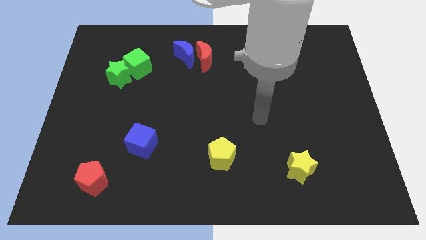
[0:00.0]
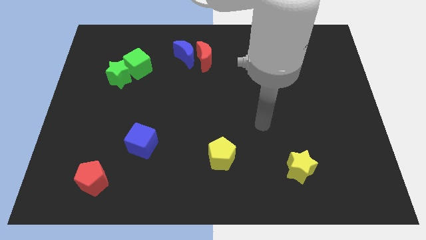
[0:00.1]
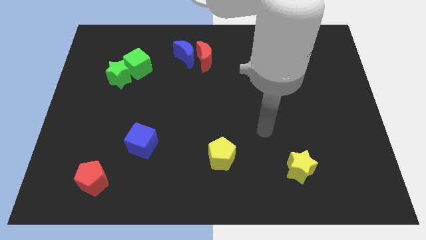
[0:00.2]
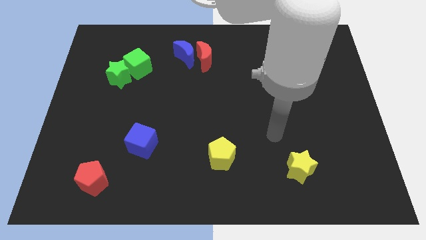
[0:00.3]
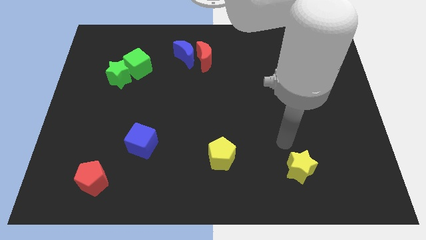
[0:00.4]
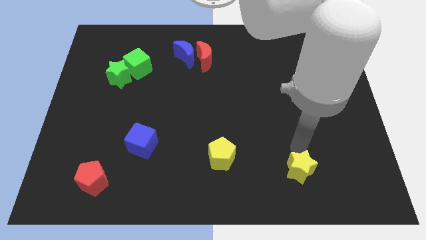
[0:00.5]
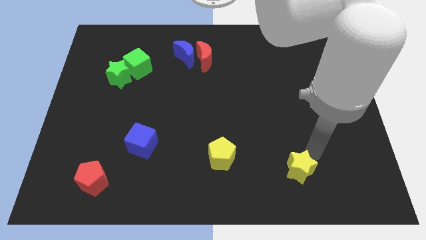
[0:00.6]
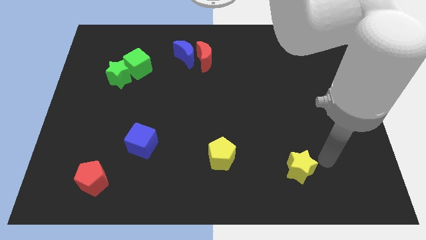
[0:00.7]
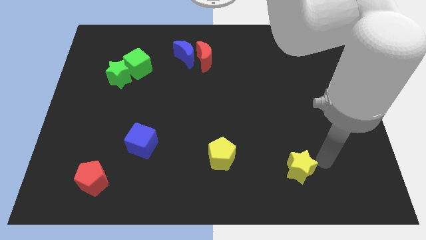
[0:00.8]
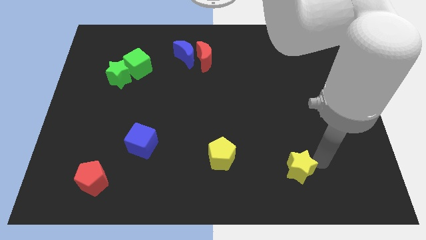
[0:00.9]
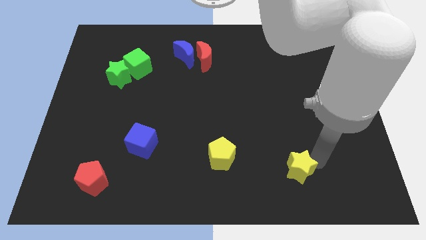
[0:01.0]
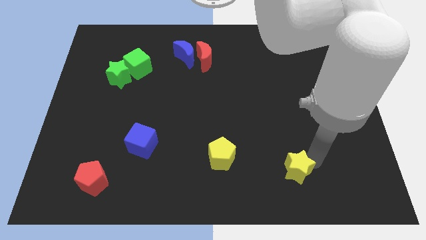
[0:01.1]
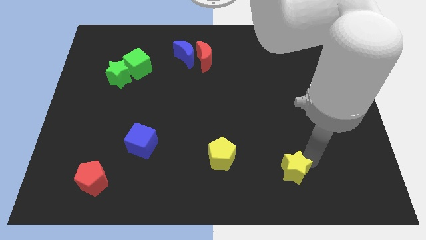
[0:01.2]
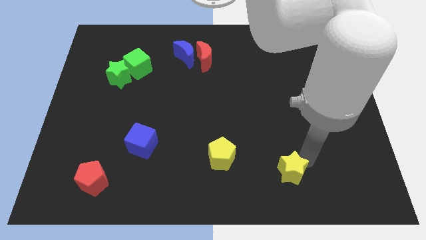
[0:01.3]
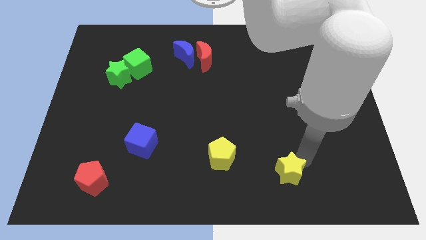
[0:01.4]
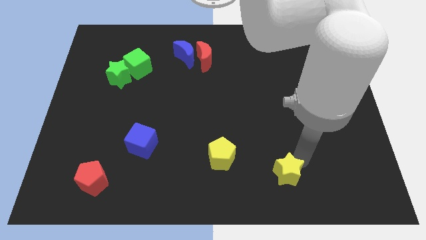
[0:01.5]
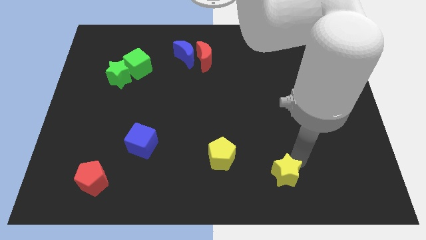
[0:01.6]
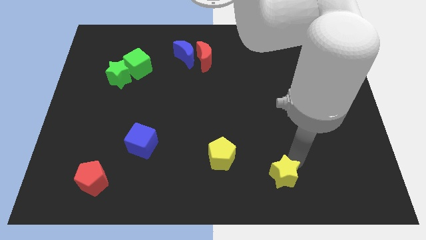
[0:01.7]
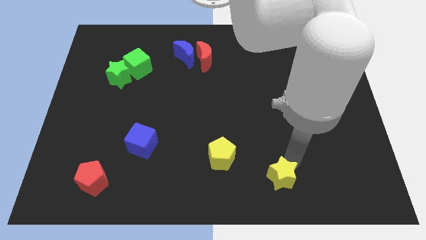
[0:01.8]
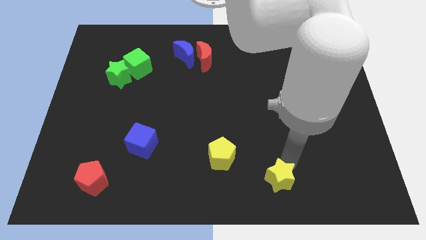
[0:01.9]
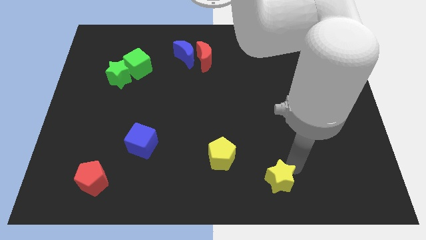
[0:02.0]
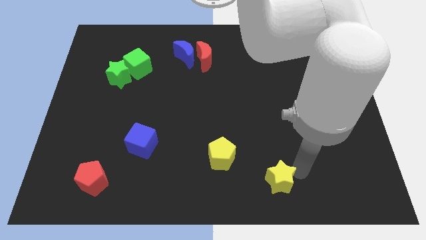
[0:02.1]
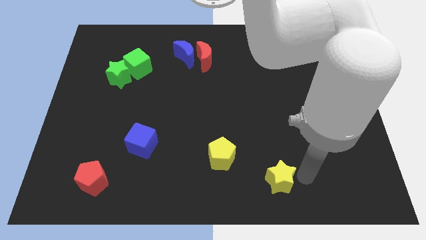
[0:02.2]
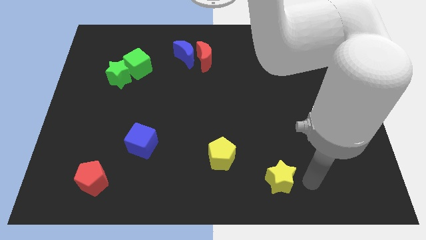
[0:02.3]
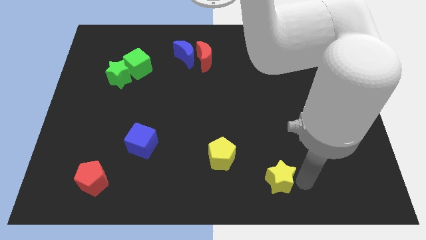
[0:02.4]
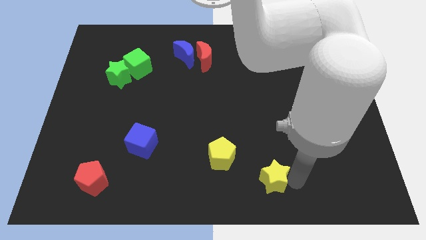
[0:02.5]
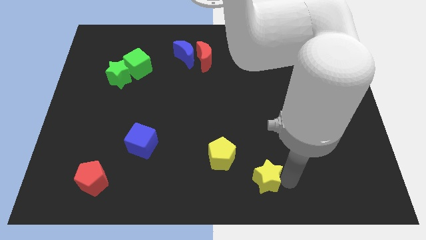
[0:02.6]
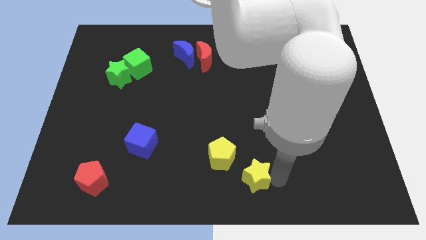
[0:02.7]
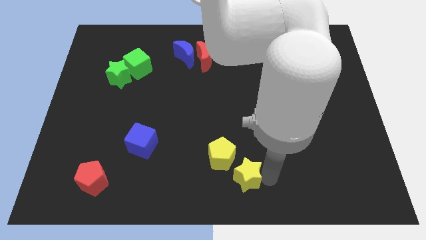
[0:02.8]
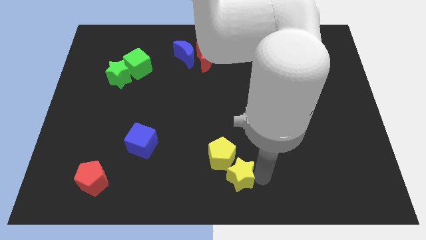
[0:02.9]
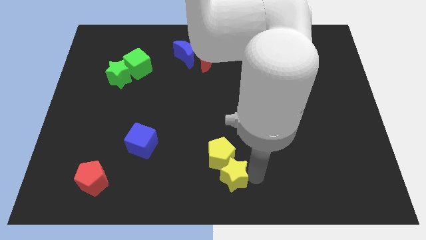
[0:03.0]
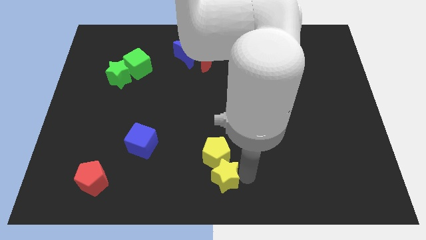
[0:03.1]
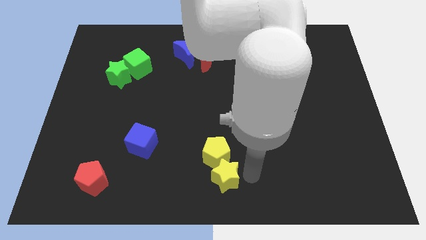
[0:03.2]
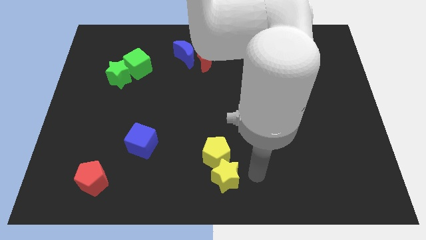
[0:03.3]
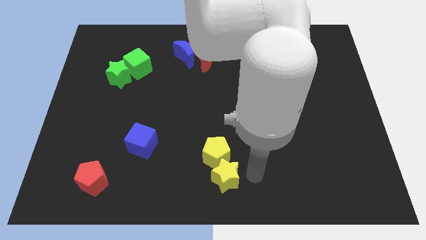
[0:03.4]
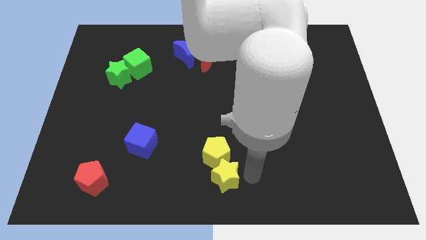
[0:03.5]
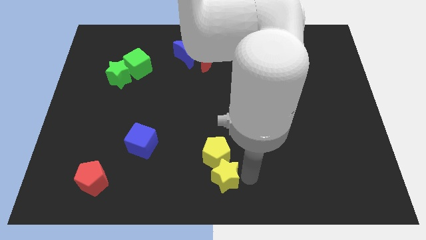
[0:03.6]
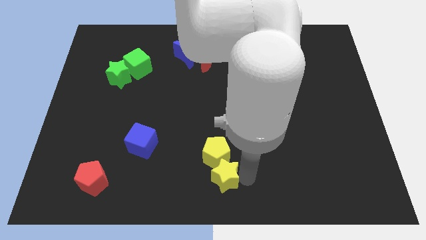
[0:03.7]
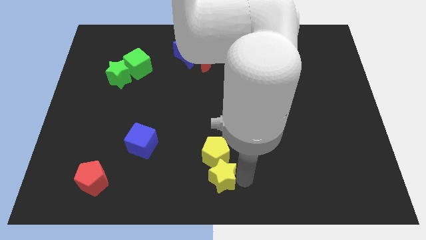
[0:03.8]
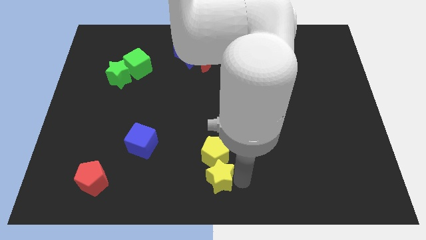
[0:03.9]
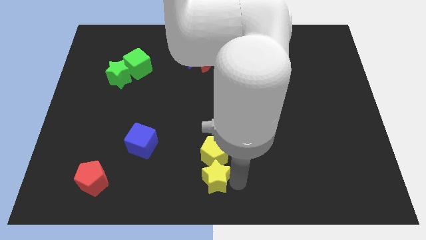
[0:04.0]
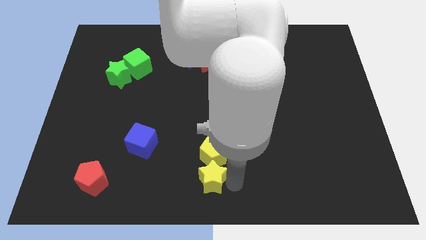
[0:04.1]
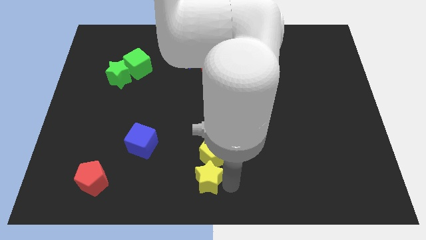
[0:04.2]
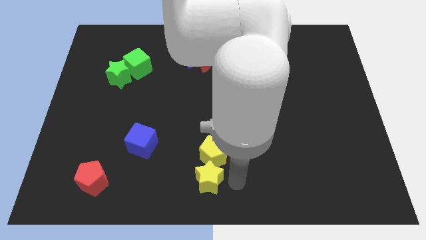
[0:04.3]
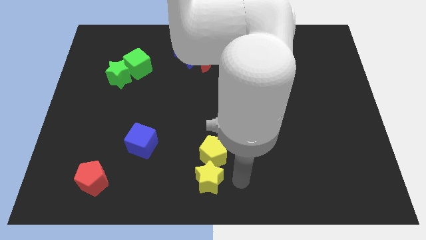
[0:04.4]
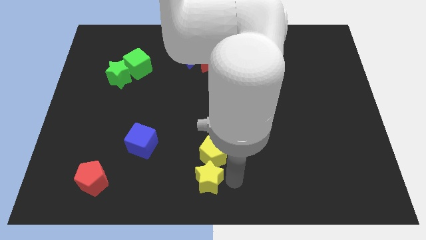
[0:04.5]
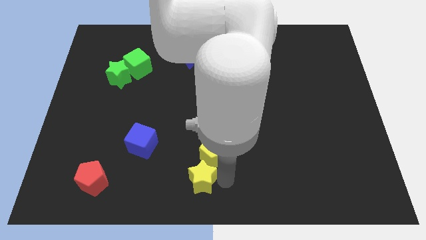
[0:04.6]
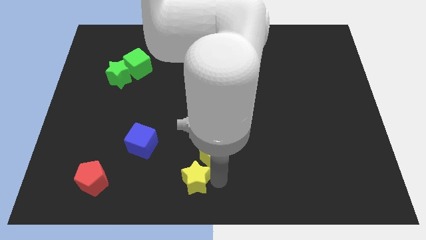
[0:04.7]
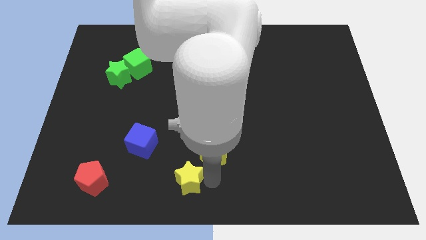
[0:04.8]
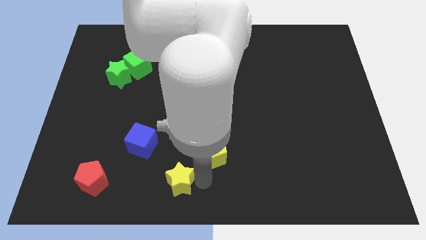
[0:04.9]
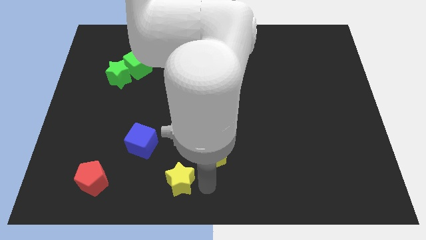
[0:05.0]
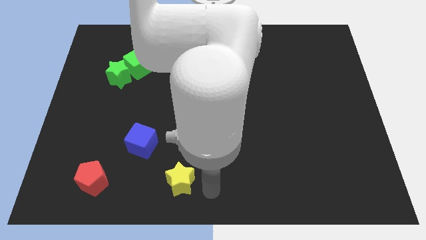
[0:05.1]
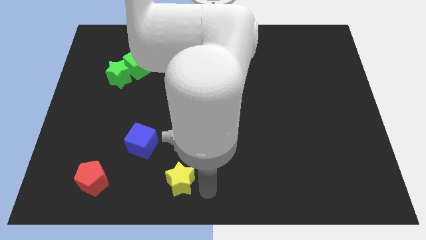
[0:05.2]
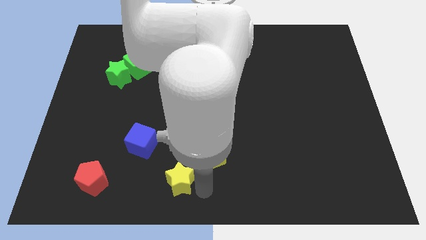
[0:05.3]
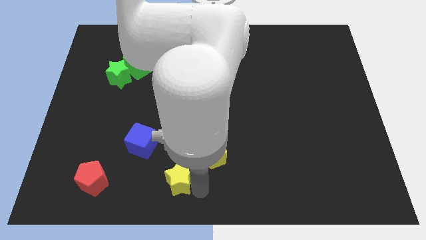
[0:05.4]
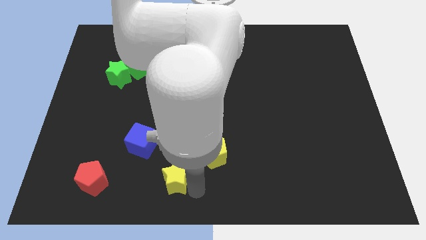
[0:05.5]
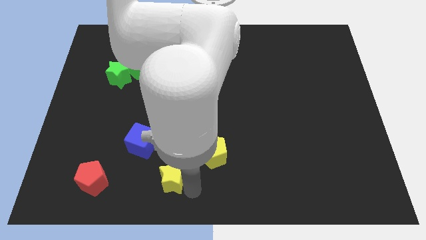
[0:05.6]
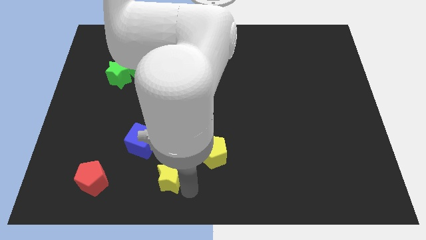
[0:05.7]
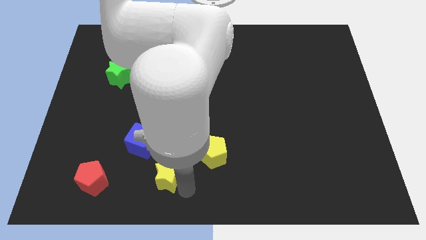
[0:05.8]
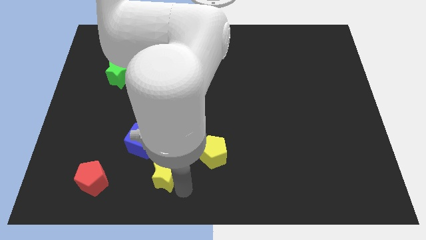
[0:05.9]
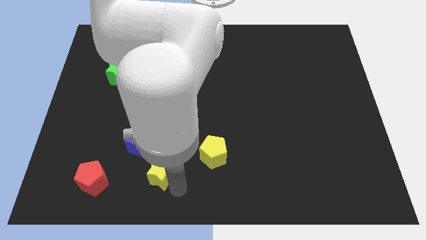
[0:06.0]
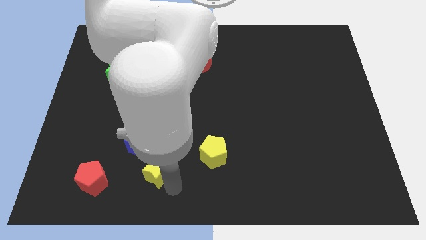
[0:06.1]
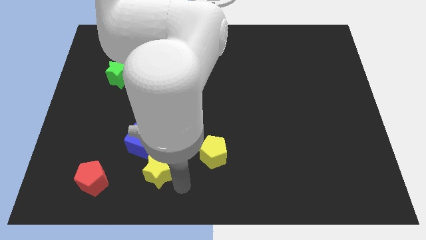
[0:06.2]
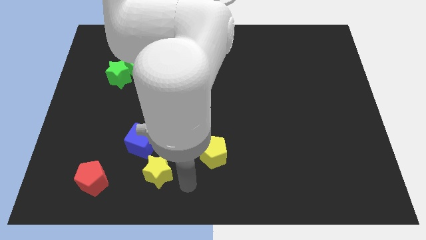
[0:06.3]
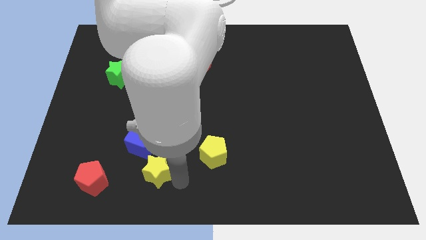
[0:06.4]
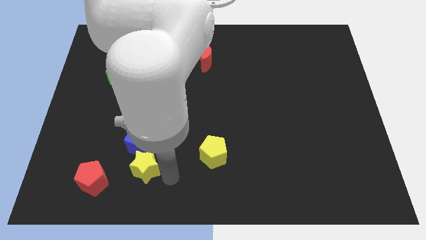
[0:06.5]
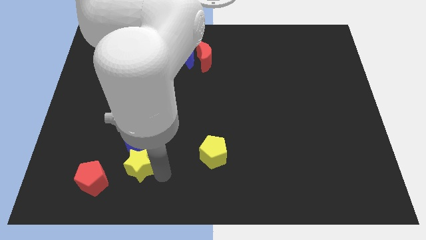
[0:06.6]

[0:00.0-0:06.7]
push the yellow star to the top right of the red pentagon

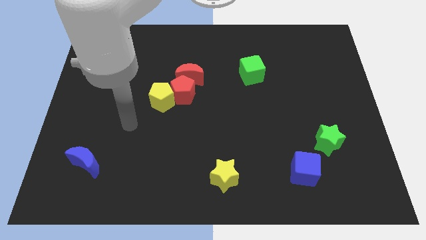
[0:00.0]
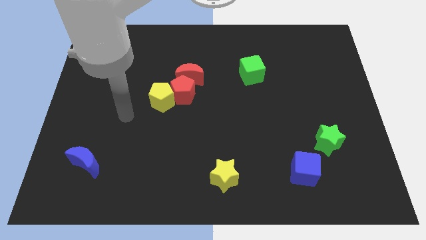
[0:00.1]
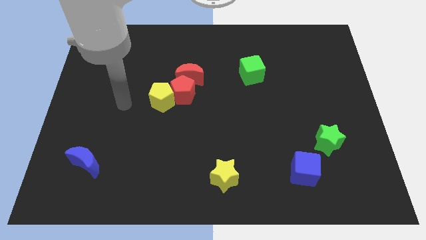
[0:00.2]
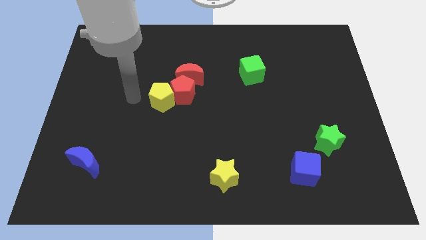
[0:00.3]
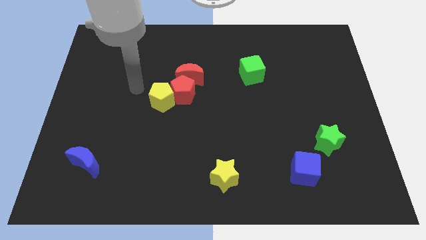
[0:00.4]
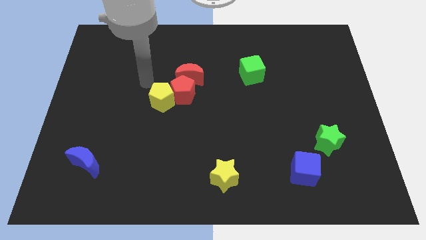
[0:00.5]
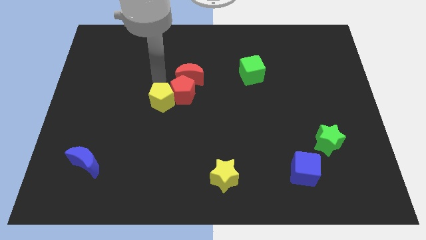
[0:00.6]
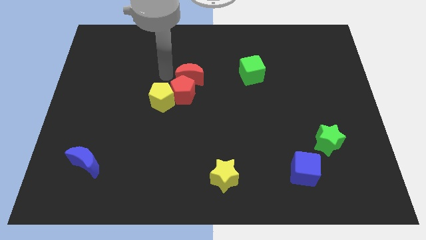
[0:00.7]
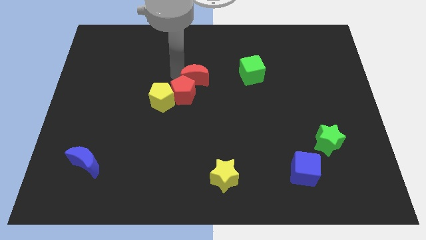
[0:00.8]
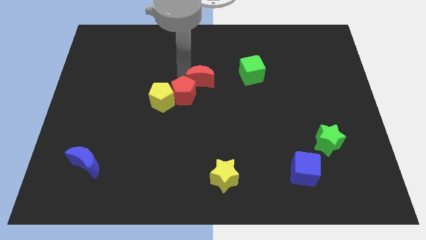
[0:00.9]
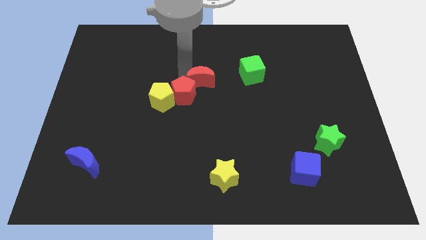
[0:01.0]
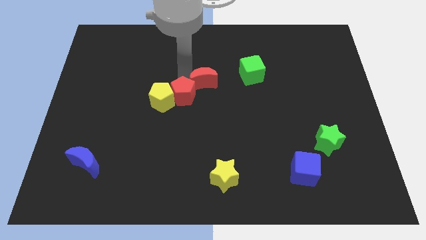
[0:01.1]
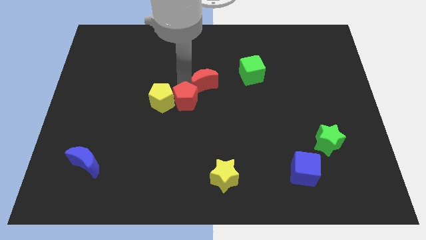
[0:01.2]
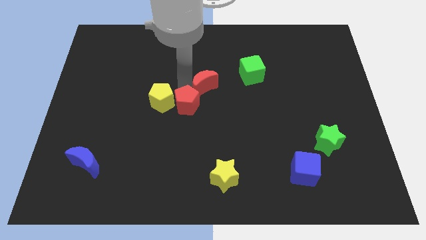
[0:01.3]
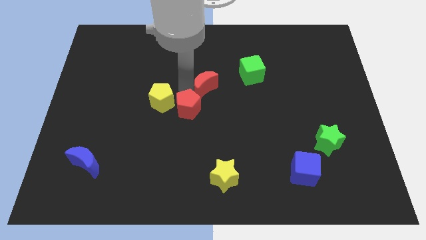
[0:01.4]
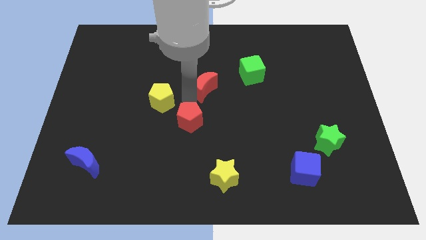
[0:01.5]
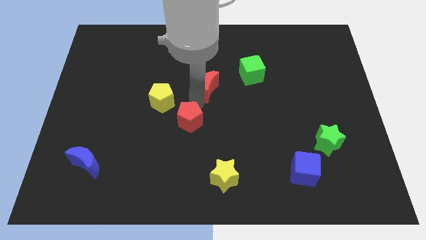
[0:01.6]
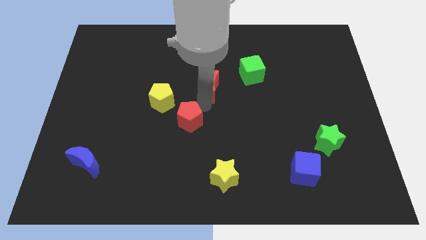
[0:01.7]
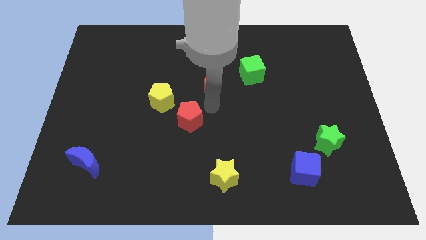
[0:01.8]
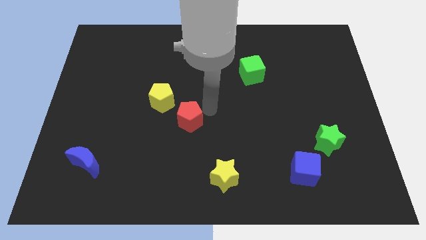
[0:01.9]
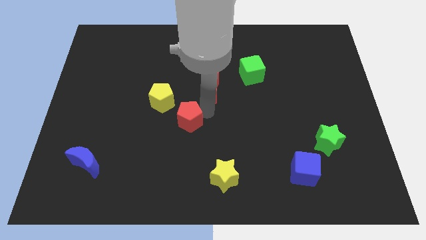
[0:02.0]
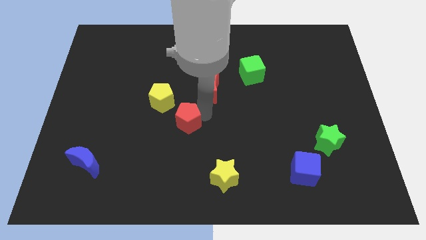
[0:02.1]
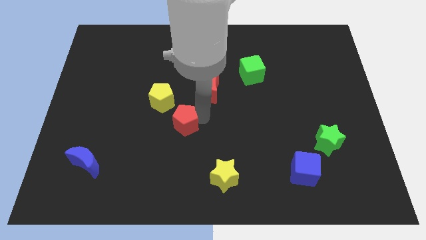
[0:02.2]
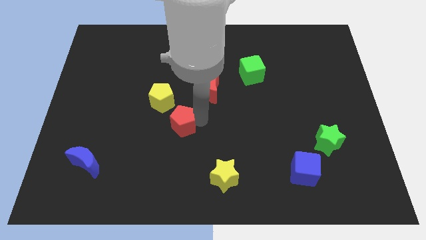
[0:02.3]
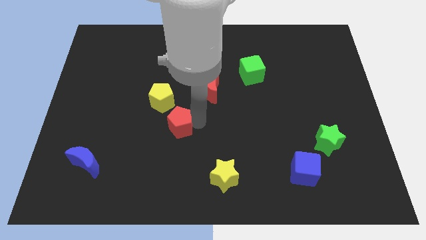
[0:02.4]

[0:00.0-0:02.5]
put the red pentagon to the bottom side of the yellow pentagon
